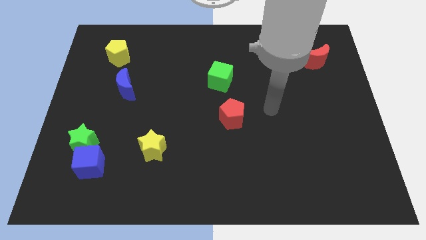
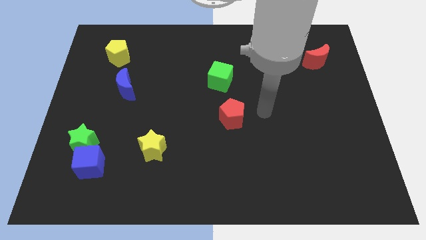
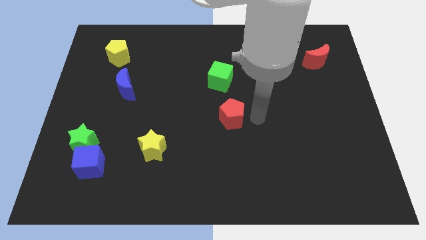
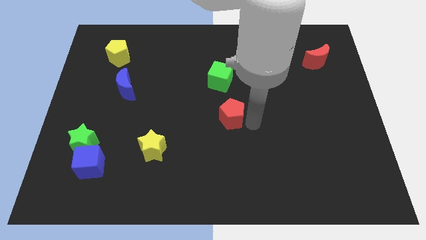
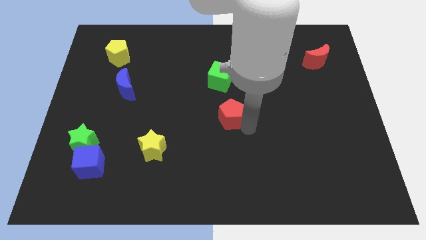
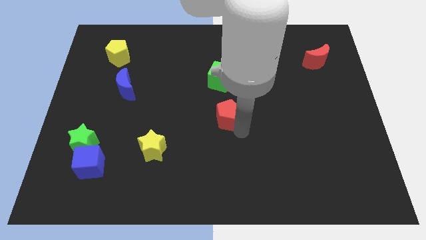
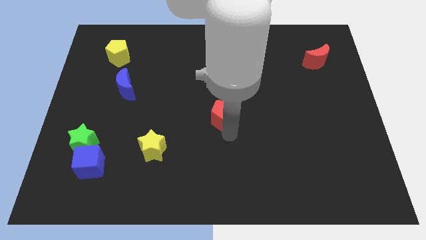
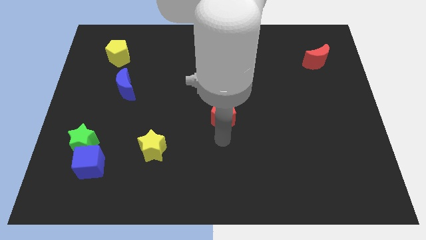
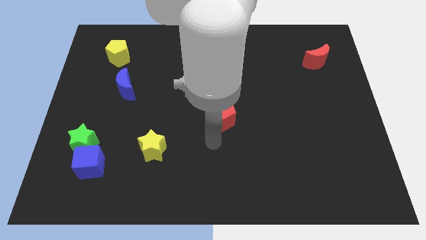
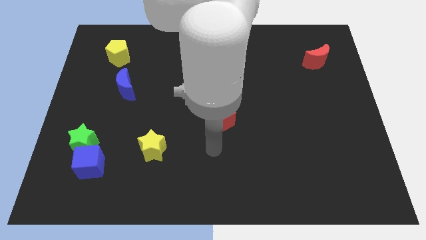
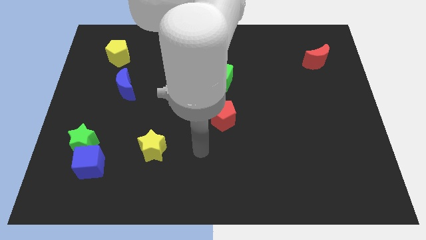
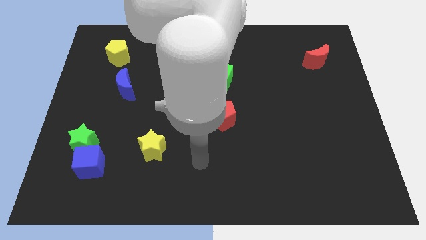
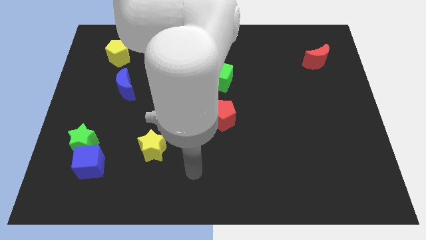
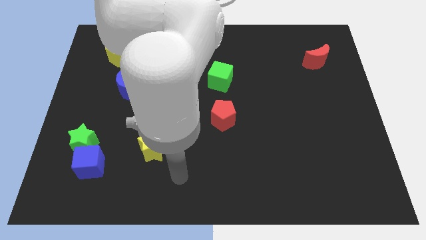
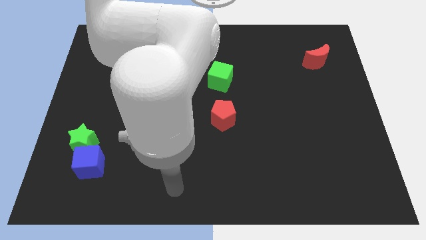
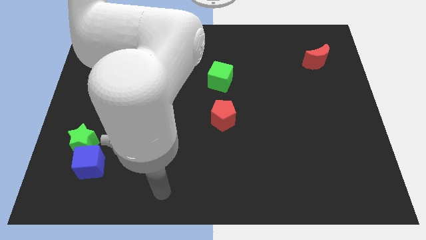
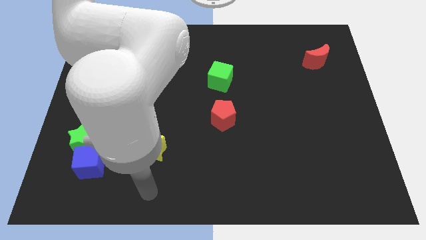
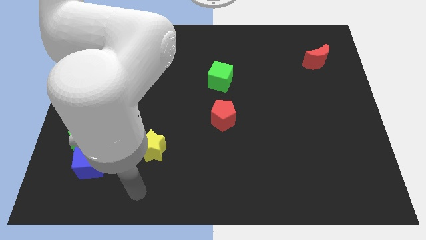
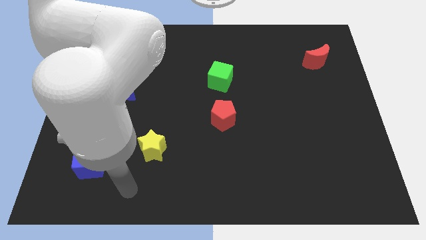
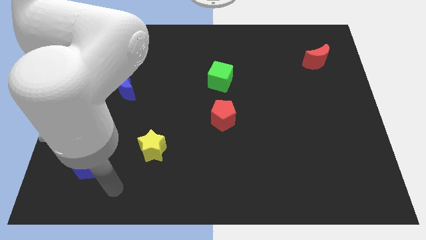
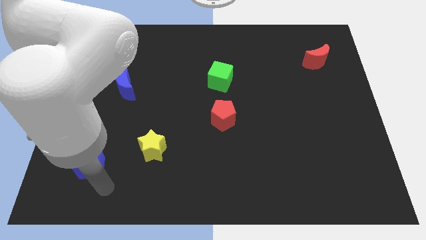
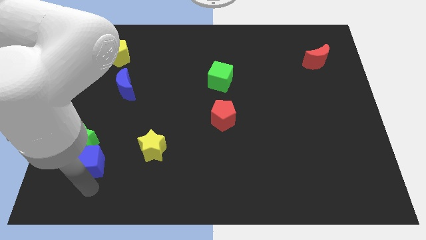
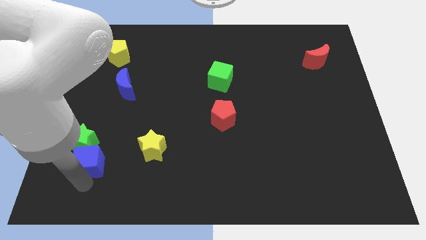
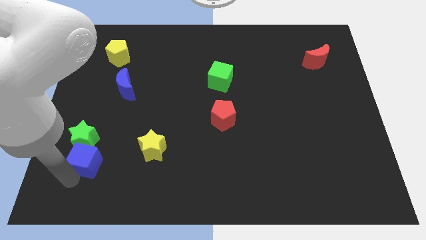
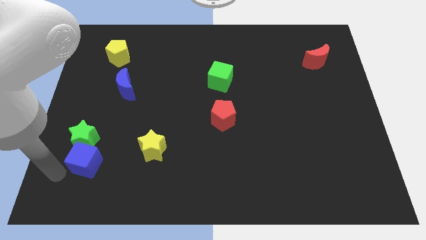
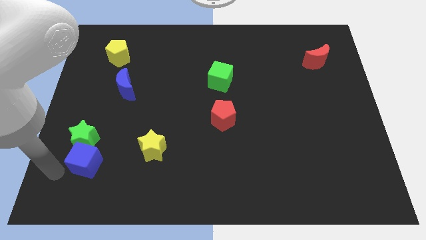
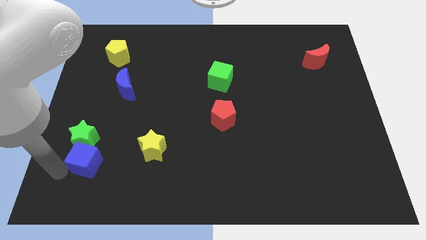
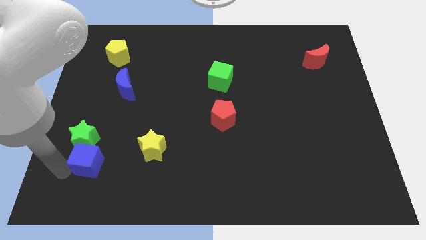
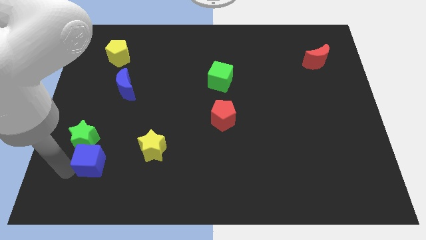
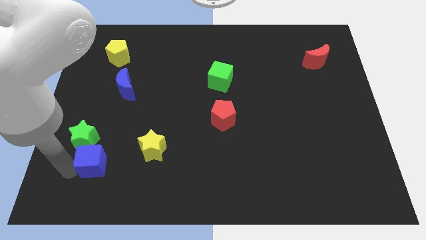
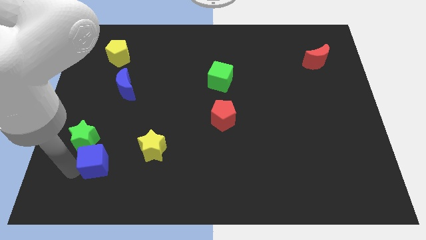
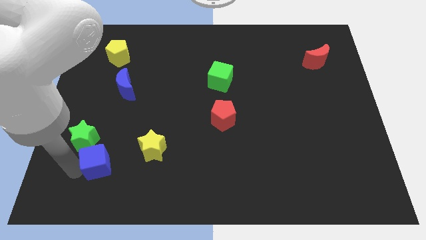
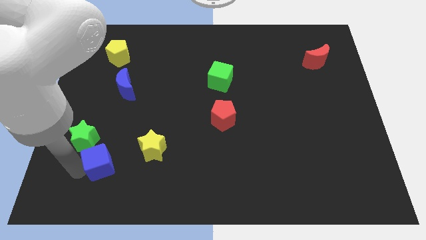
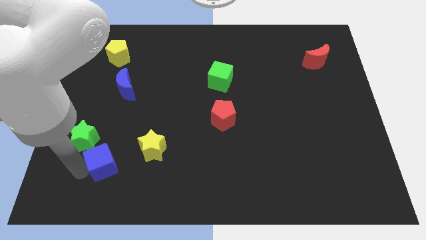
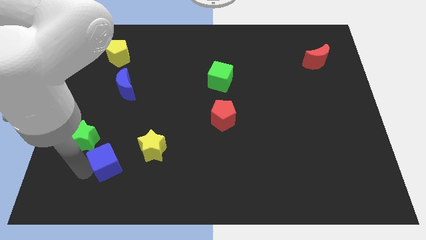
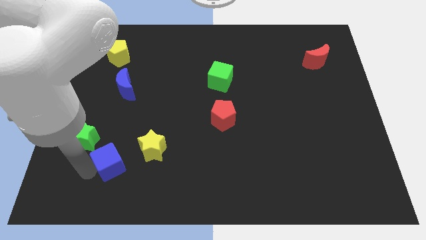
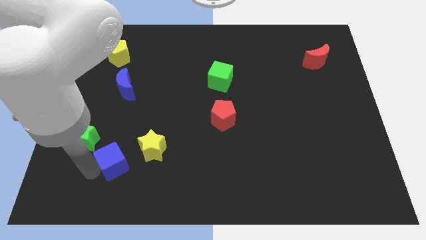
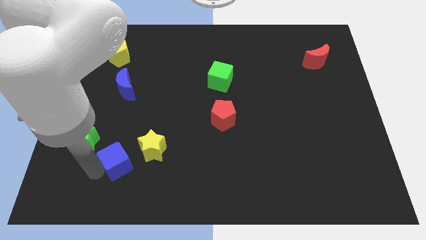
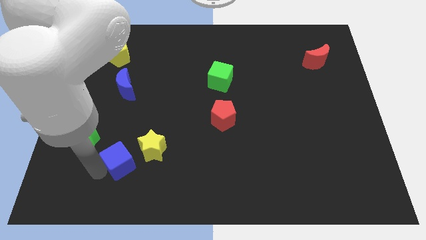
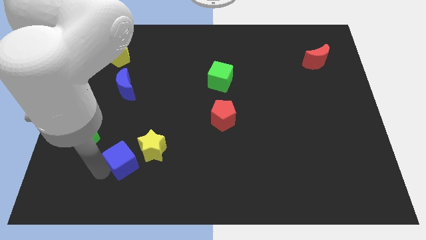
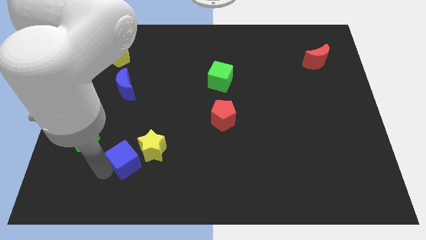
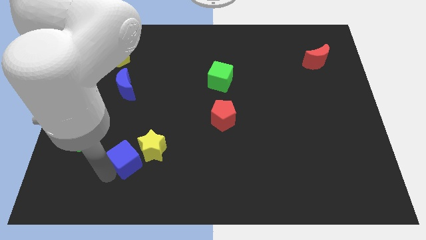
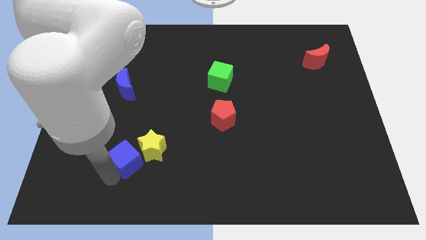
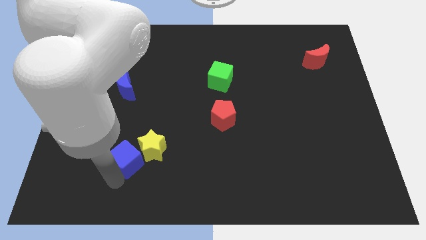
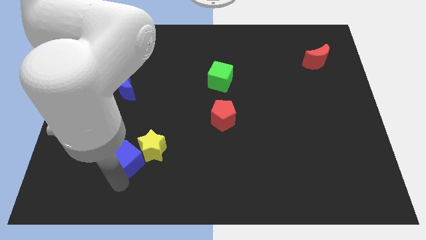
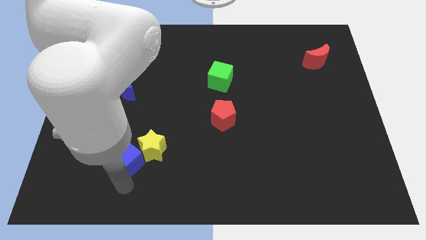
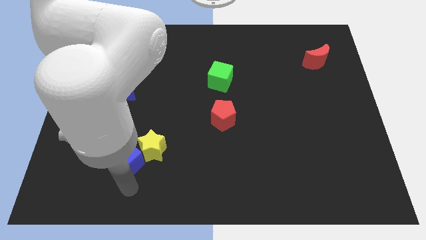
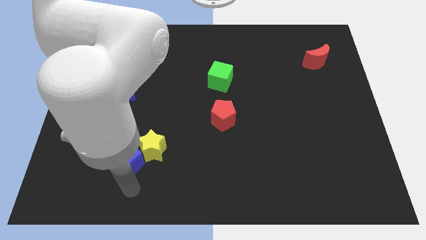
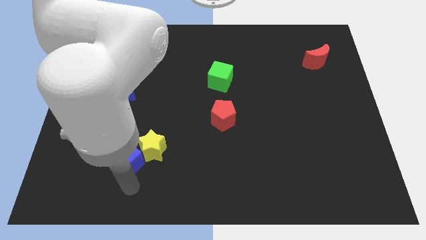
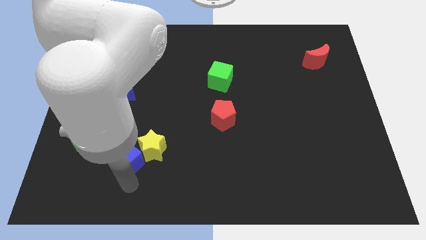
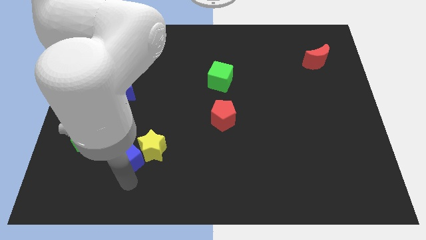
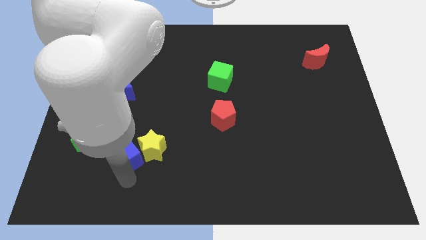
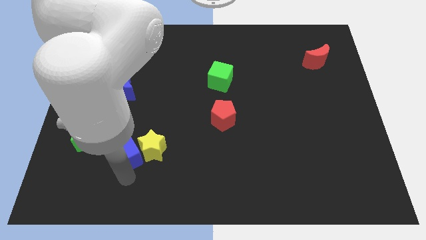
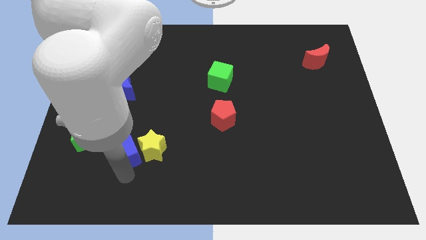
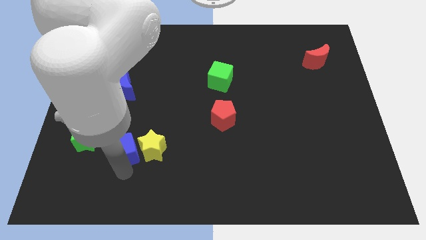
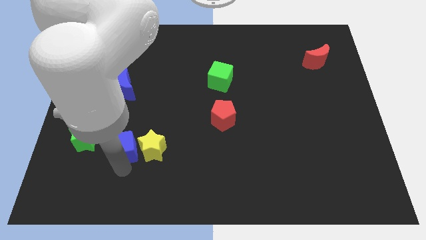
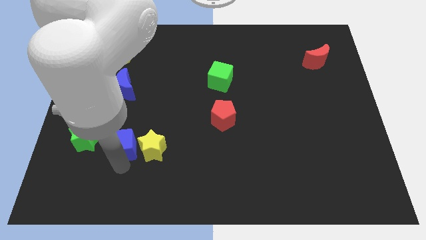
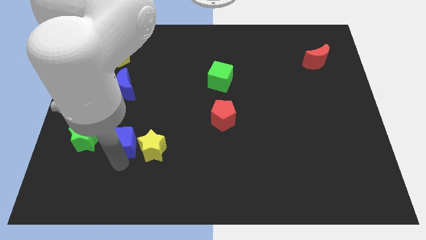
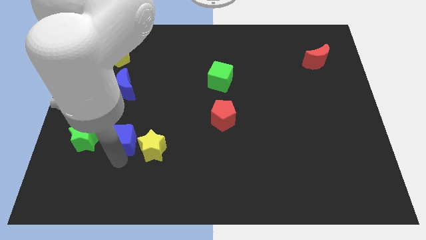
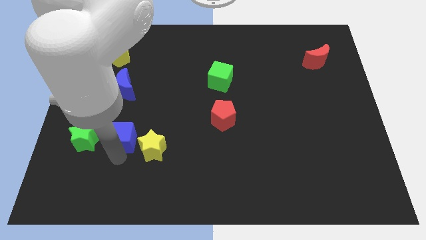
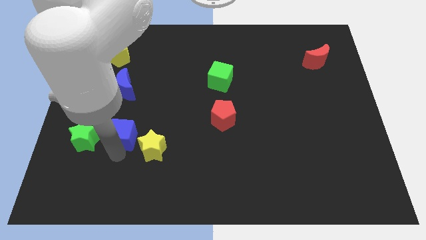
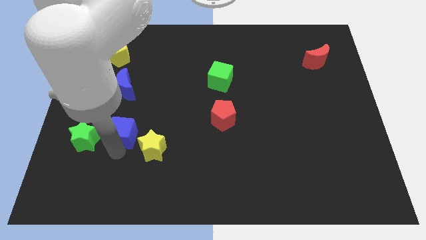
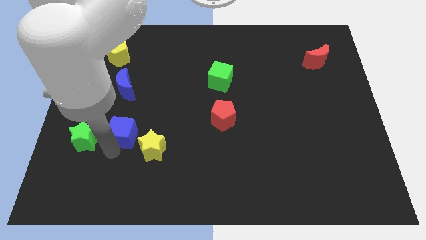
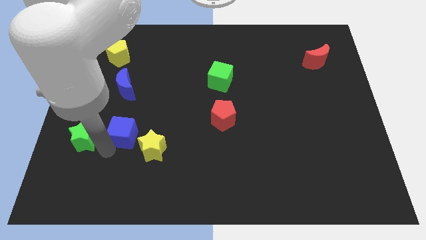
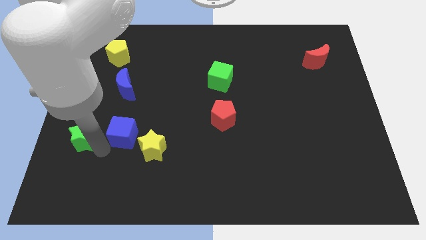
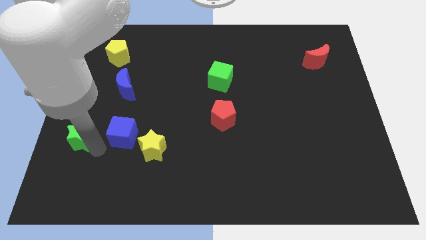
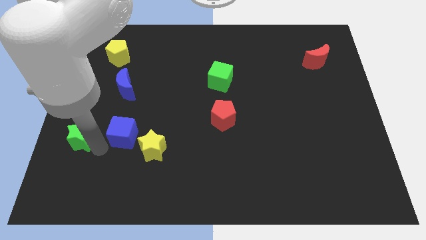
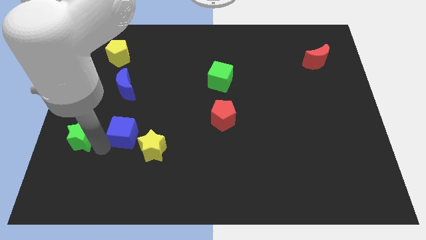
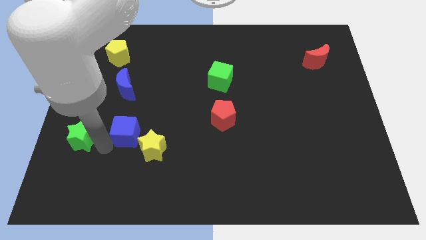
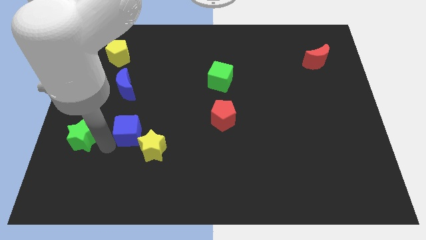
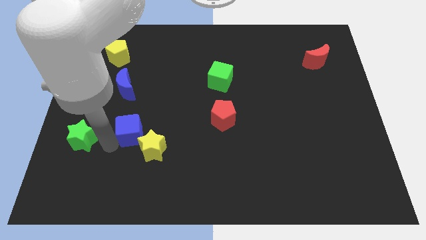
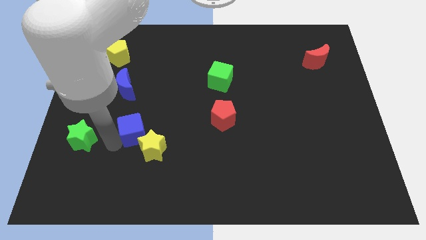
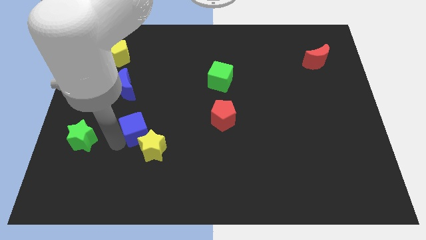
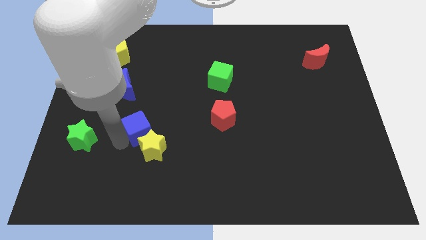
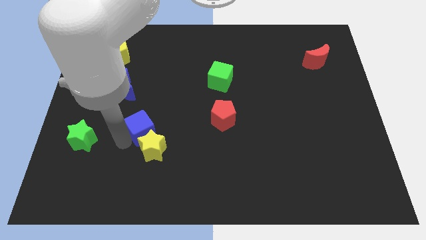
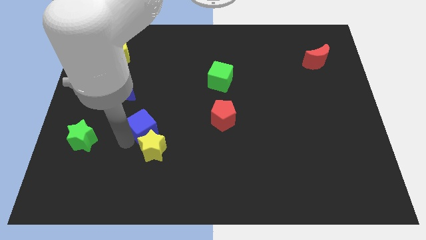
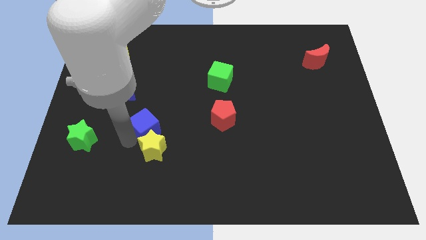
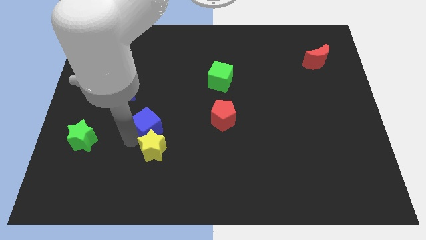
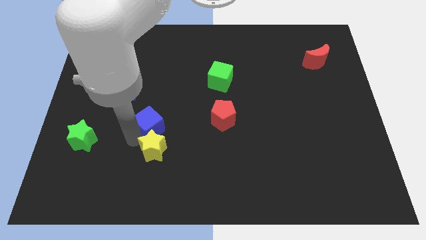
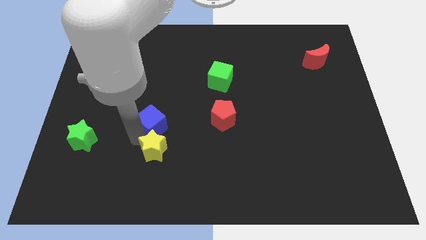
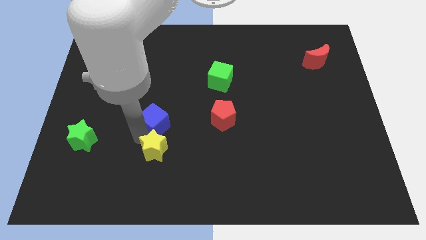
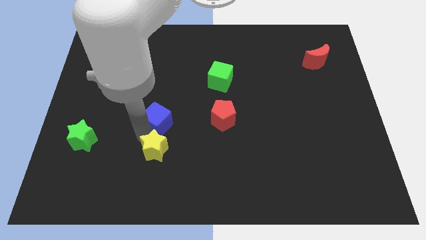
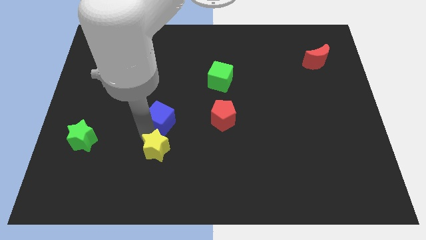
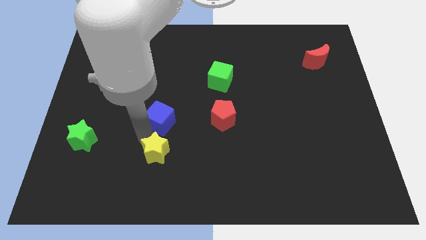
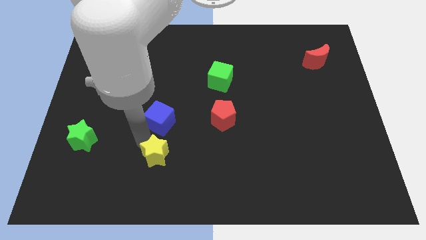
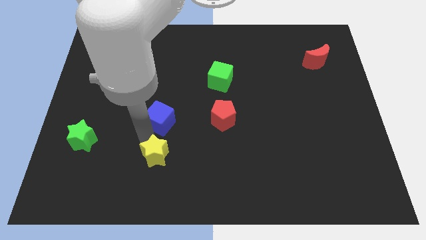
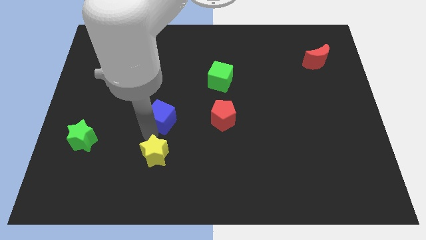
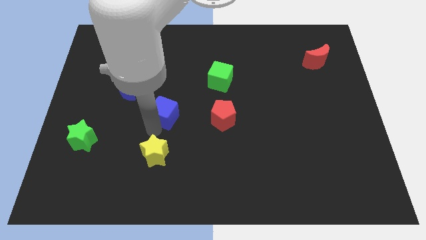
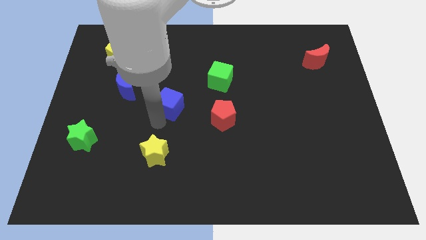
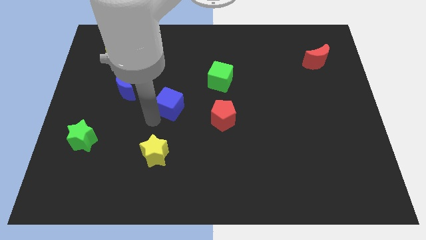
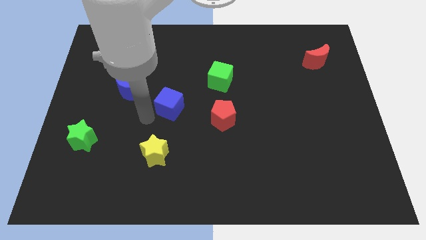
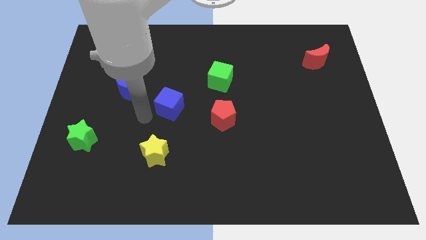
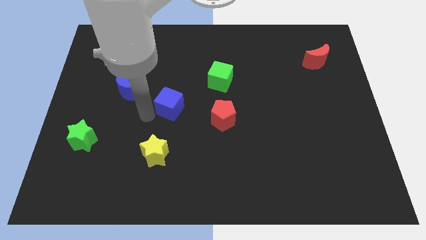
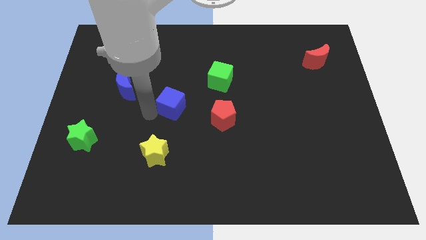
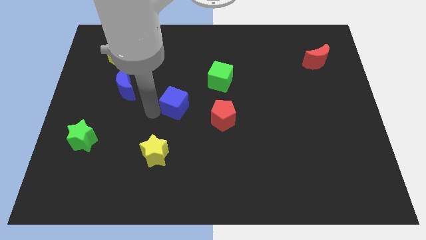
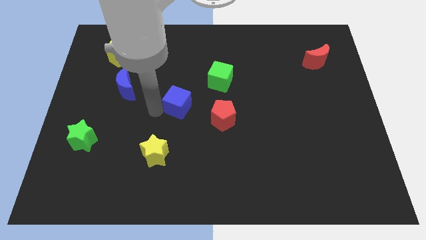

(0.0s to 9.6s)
slide the blue cube diagonally down and to the left of the green cube
